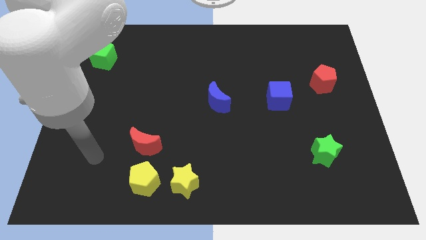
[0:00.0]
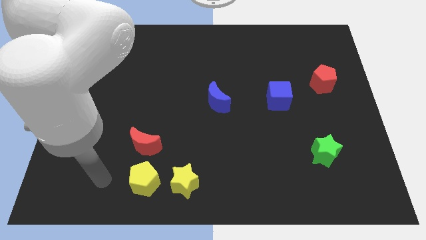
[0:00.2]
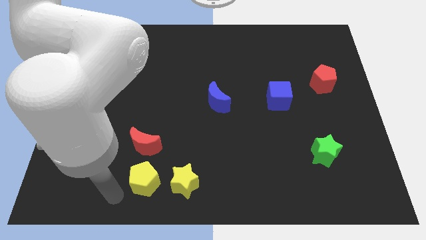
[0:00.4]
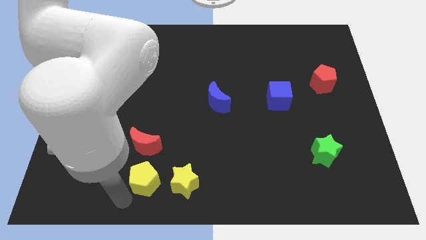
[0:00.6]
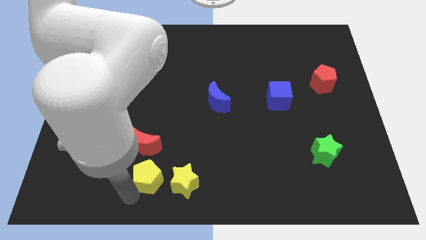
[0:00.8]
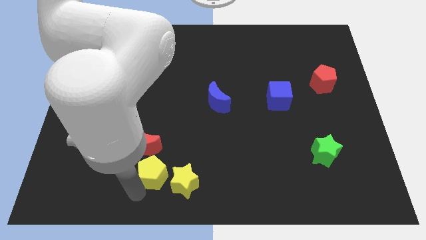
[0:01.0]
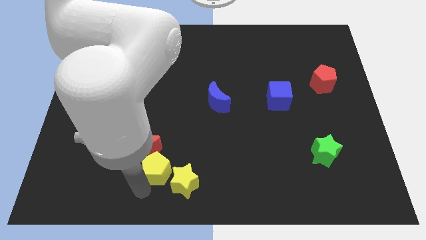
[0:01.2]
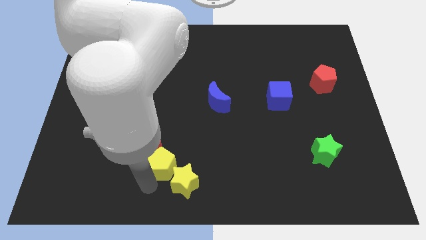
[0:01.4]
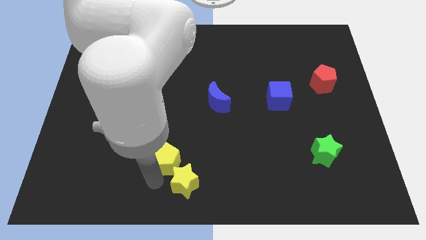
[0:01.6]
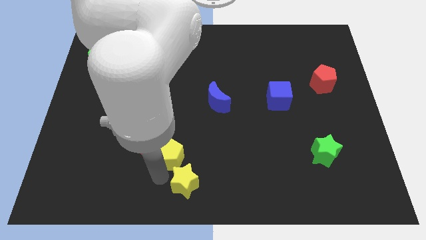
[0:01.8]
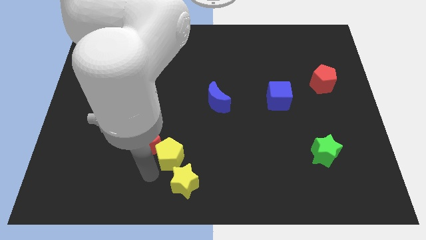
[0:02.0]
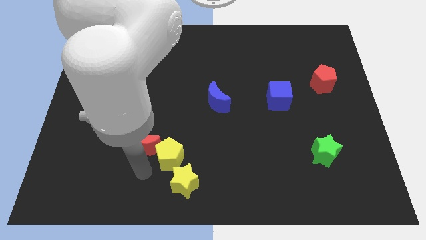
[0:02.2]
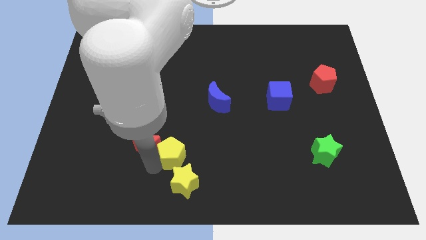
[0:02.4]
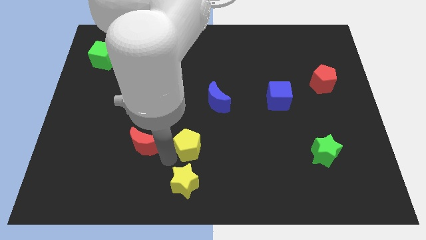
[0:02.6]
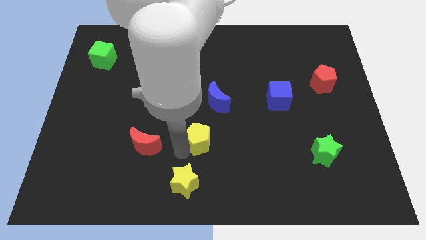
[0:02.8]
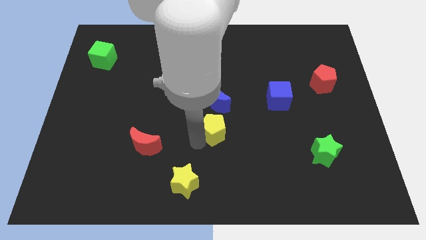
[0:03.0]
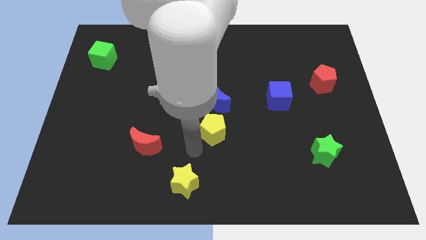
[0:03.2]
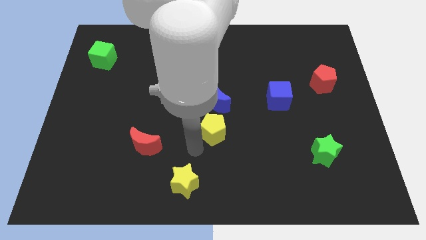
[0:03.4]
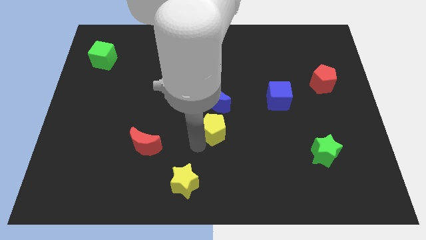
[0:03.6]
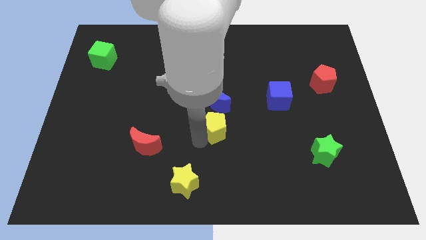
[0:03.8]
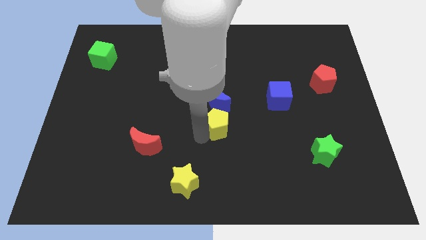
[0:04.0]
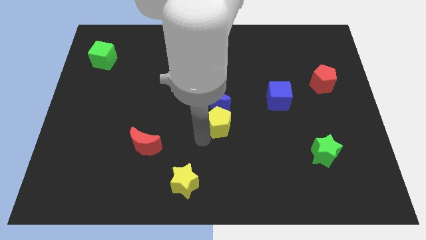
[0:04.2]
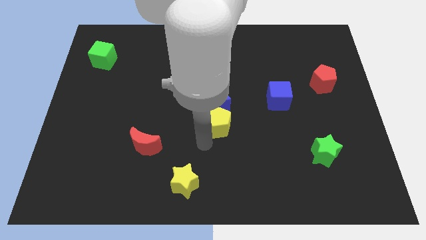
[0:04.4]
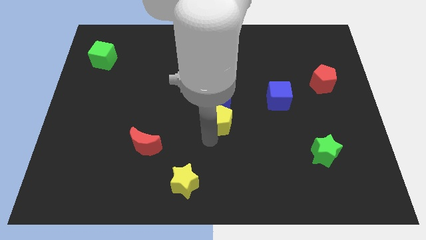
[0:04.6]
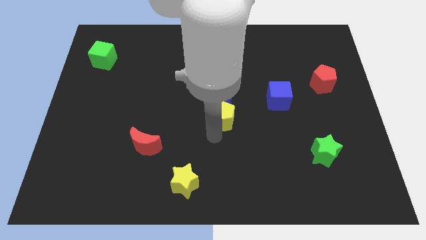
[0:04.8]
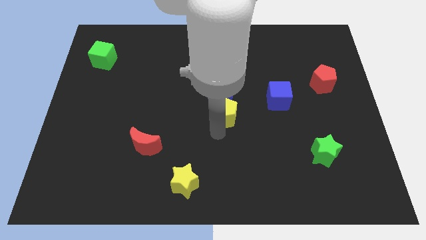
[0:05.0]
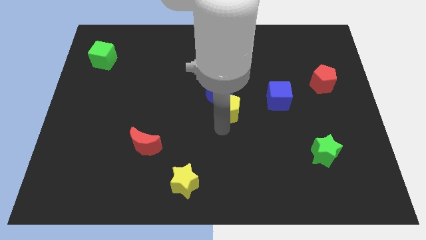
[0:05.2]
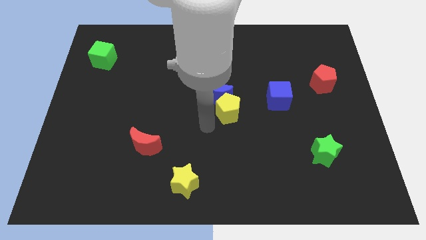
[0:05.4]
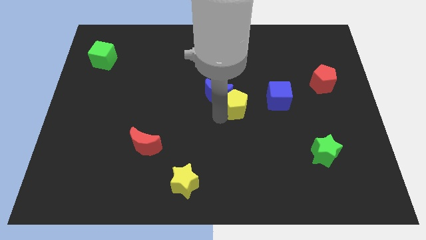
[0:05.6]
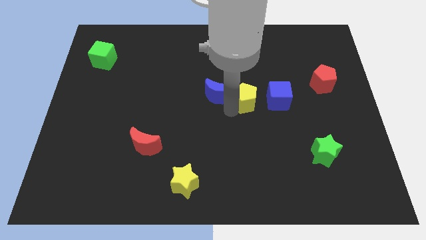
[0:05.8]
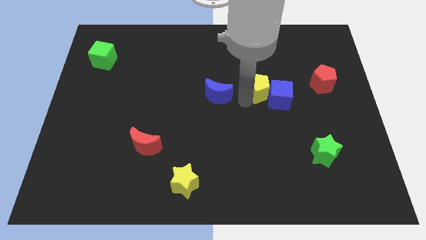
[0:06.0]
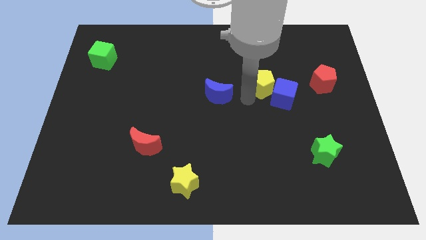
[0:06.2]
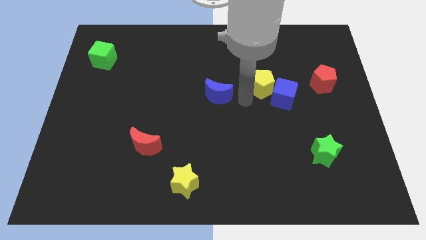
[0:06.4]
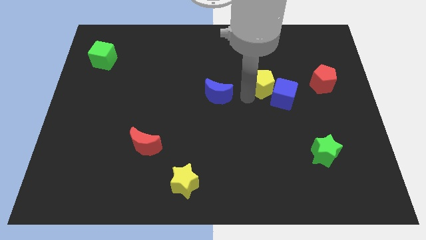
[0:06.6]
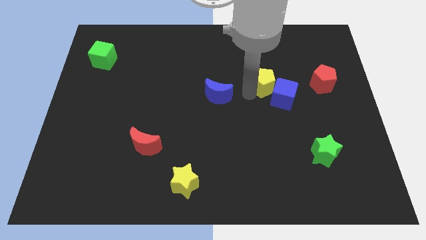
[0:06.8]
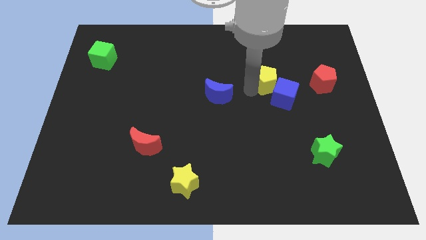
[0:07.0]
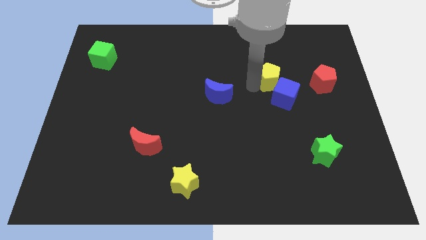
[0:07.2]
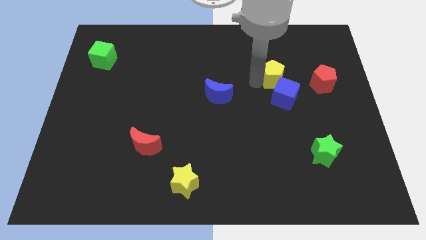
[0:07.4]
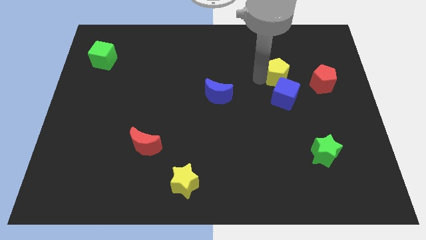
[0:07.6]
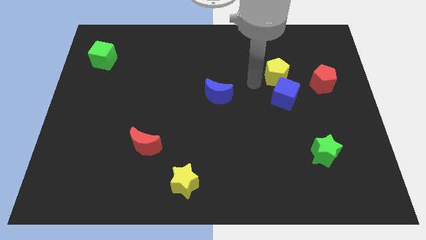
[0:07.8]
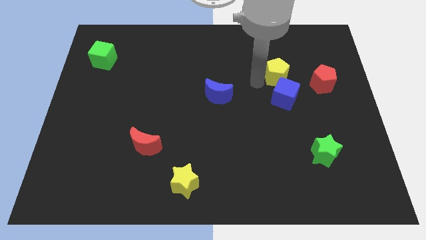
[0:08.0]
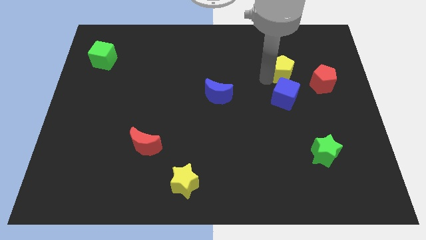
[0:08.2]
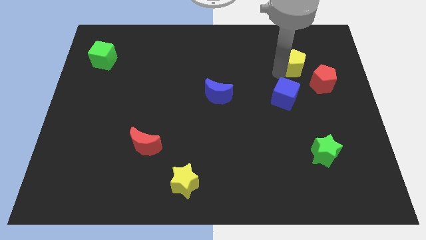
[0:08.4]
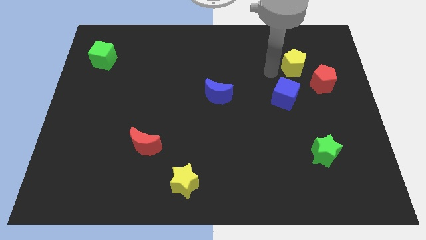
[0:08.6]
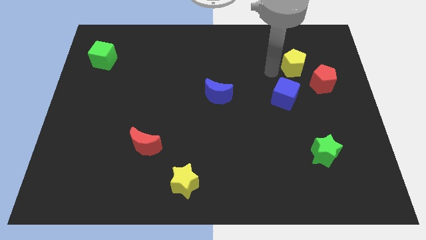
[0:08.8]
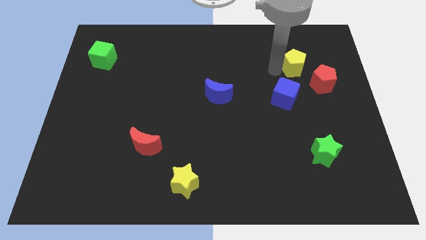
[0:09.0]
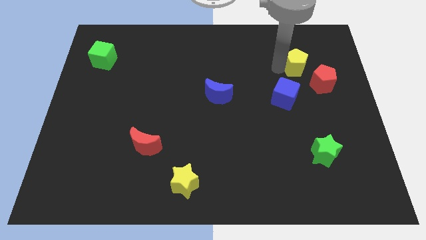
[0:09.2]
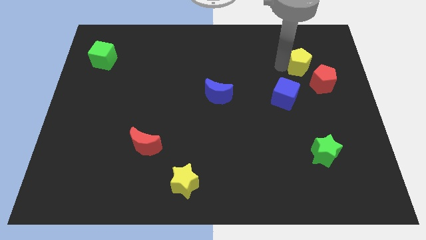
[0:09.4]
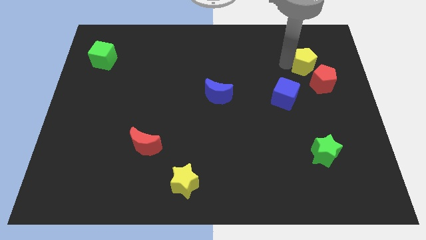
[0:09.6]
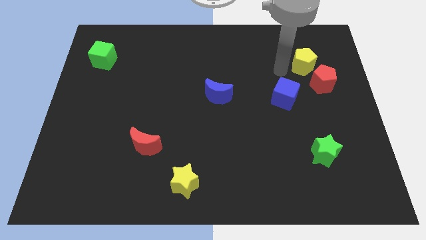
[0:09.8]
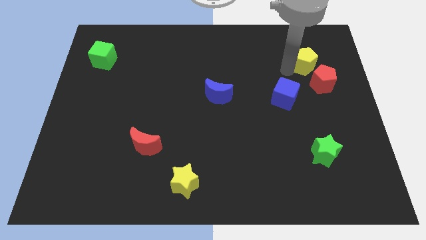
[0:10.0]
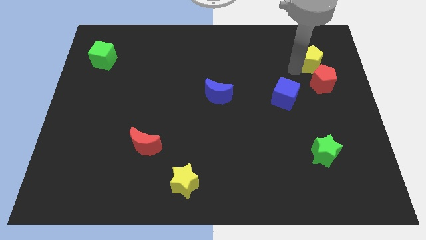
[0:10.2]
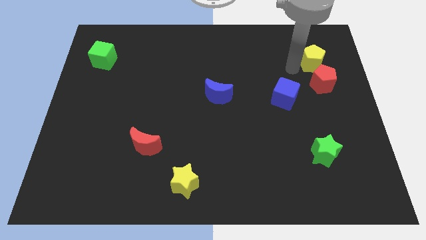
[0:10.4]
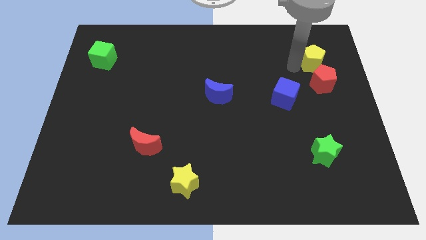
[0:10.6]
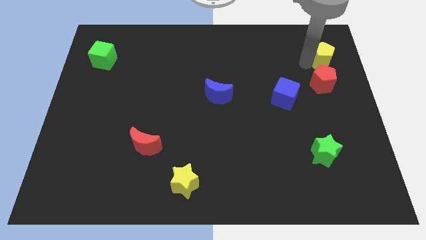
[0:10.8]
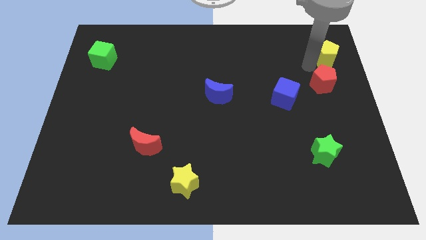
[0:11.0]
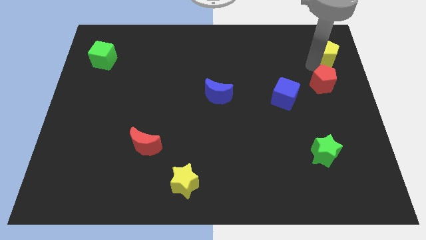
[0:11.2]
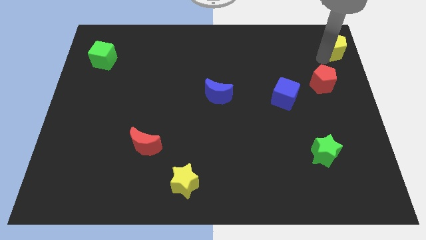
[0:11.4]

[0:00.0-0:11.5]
slide the yellow pentagon to the top right of the board

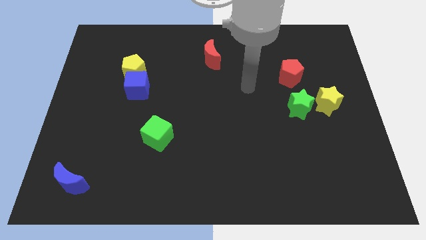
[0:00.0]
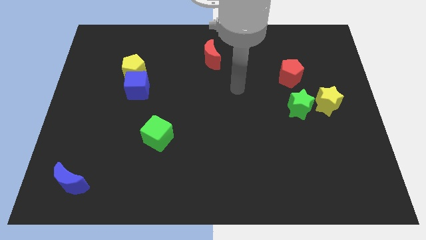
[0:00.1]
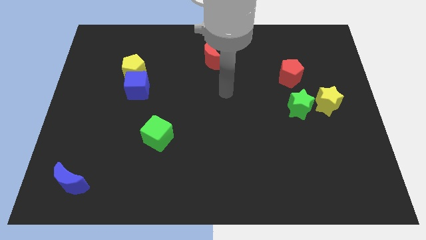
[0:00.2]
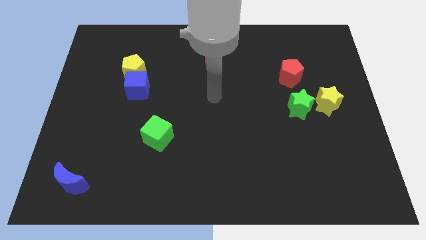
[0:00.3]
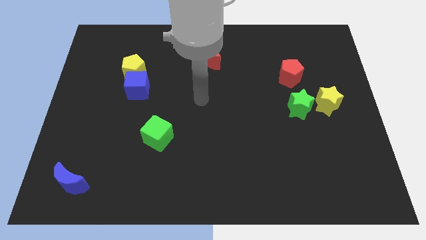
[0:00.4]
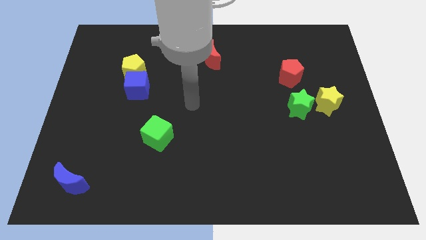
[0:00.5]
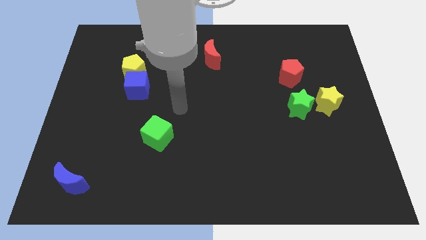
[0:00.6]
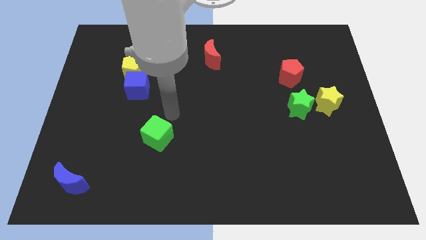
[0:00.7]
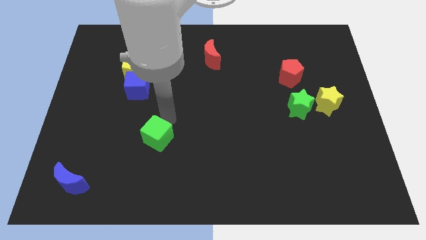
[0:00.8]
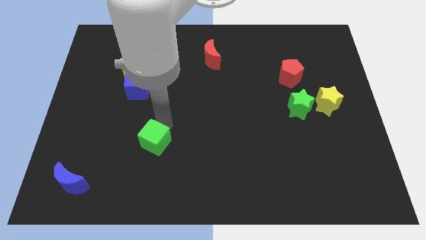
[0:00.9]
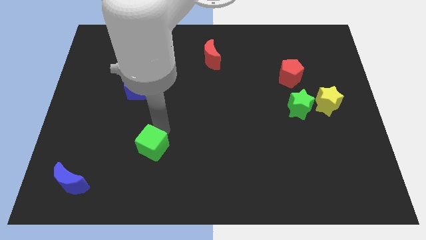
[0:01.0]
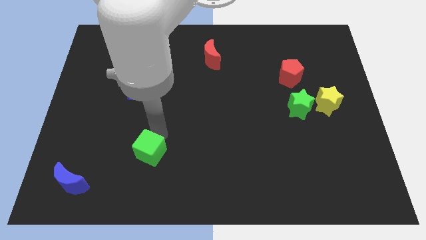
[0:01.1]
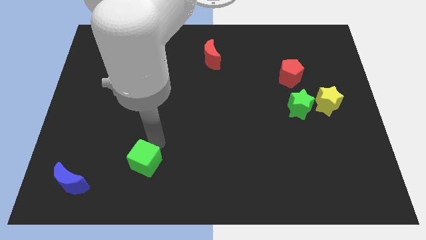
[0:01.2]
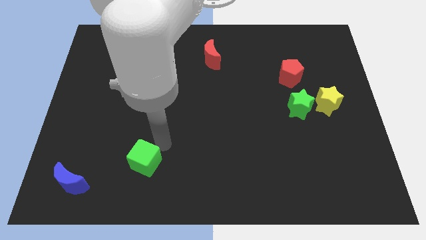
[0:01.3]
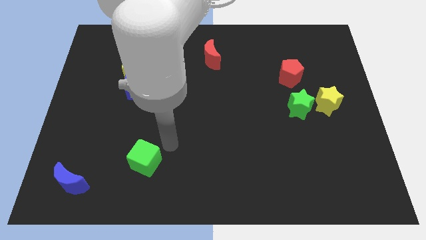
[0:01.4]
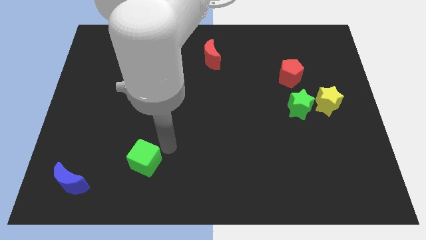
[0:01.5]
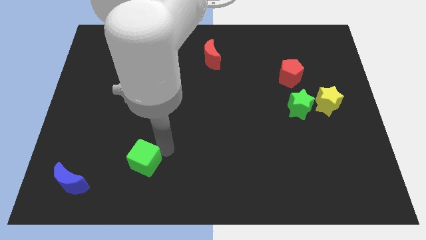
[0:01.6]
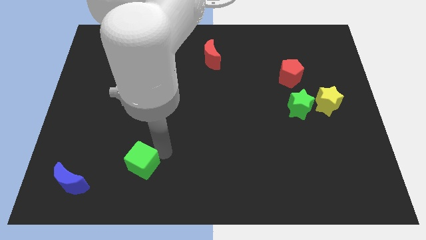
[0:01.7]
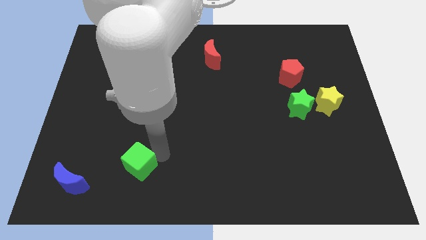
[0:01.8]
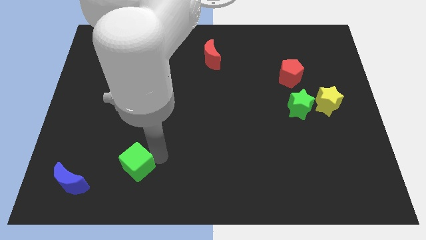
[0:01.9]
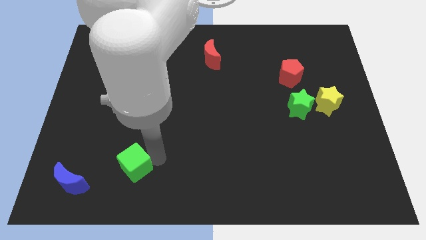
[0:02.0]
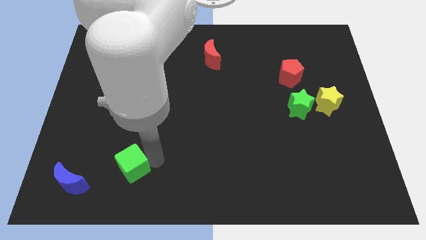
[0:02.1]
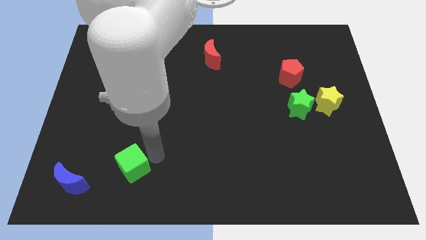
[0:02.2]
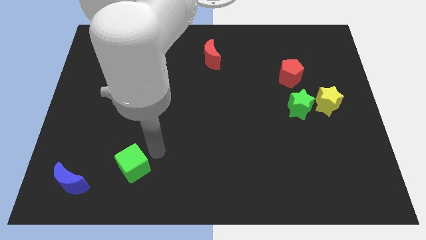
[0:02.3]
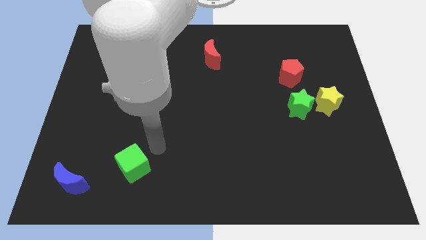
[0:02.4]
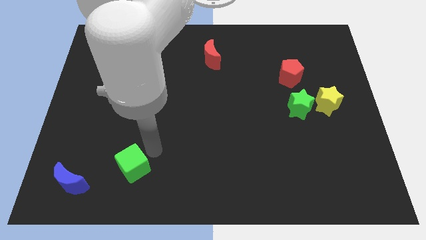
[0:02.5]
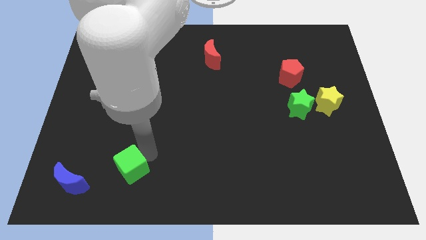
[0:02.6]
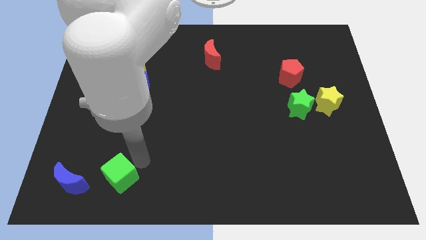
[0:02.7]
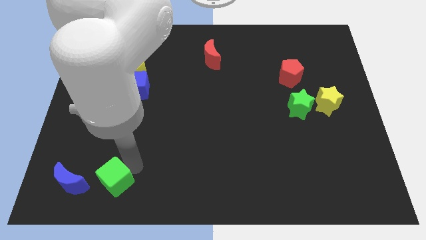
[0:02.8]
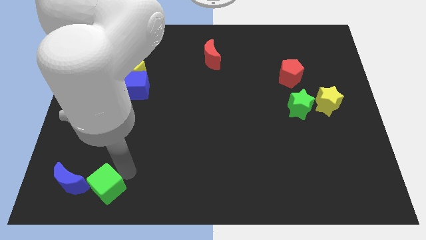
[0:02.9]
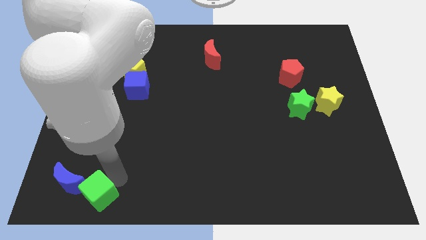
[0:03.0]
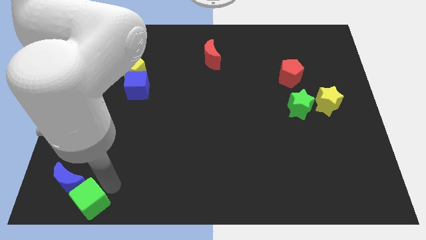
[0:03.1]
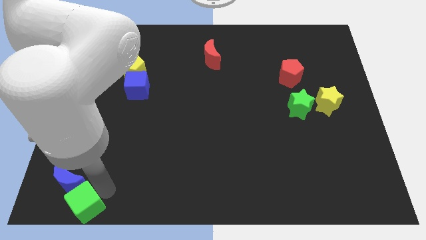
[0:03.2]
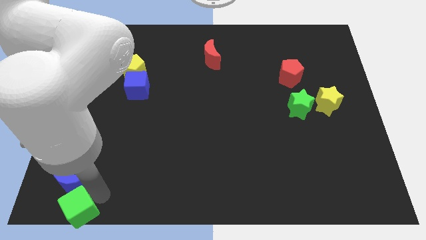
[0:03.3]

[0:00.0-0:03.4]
move the green cube to the bottom left
